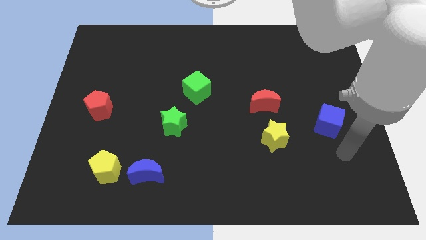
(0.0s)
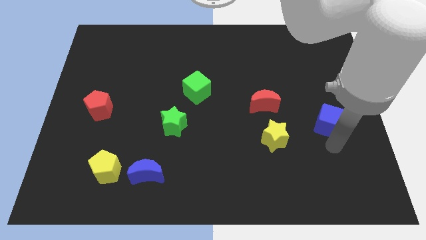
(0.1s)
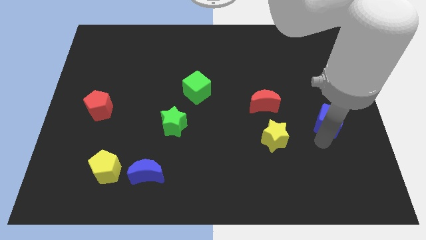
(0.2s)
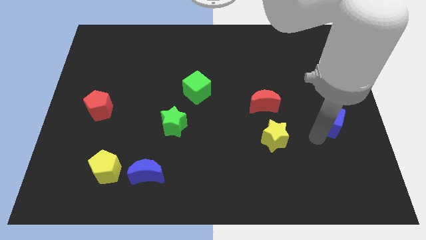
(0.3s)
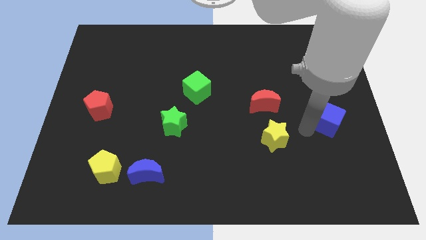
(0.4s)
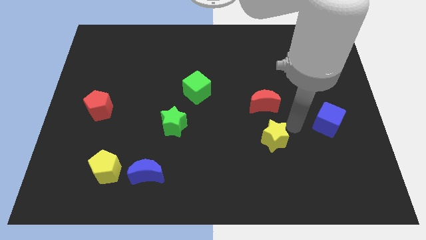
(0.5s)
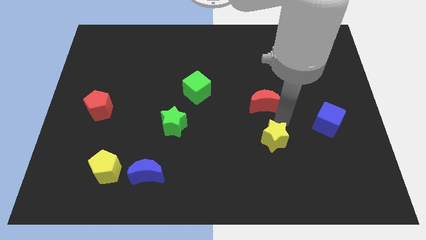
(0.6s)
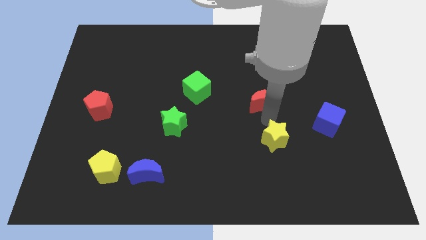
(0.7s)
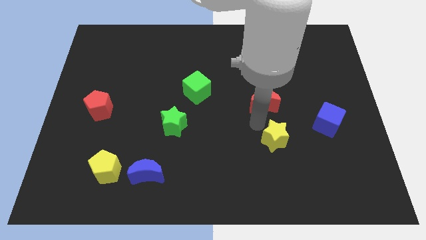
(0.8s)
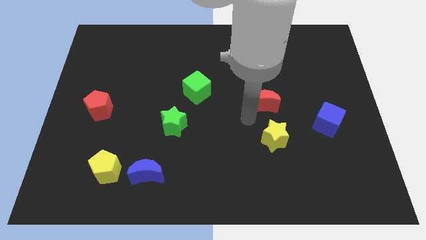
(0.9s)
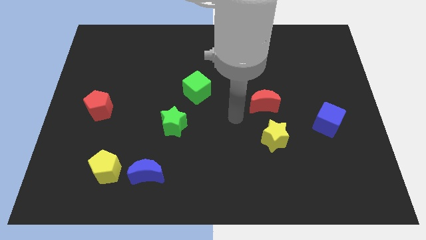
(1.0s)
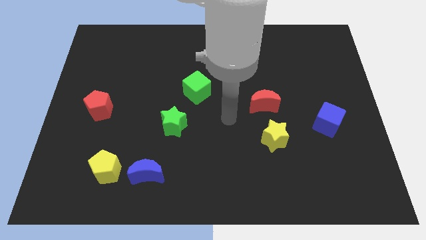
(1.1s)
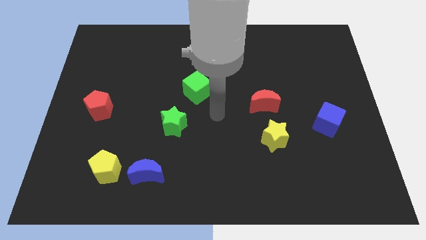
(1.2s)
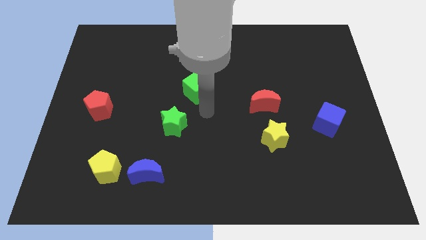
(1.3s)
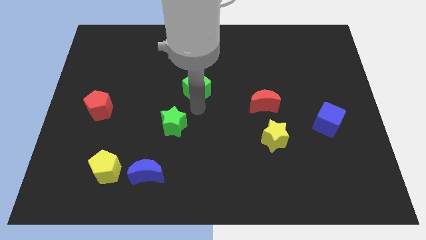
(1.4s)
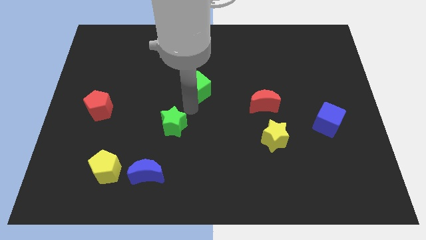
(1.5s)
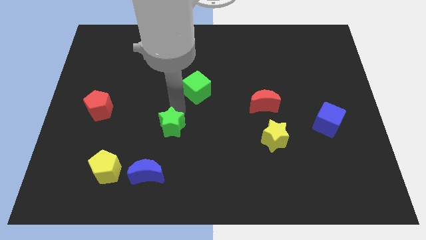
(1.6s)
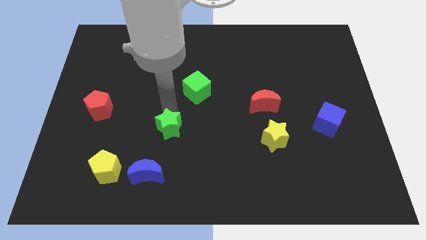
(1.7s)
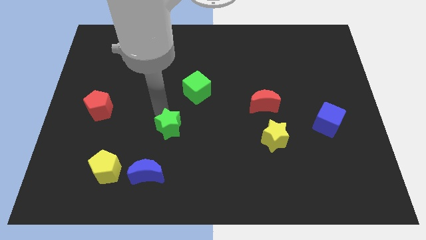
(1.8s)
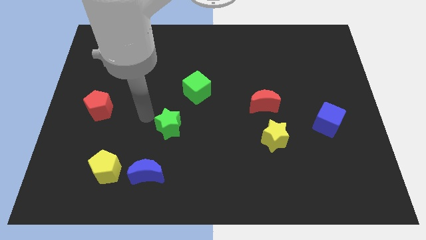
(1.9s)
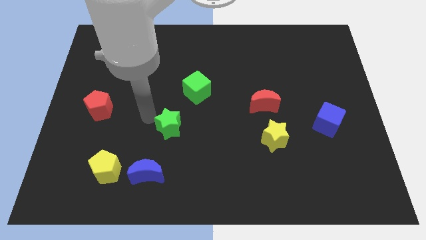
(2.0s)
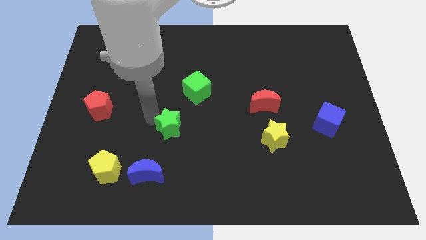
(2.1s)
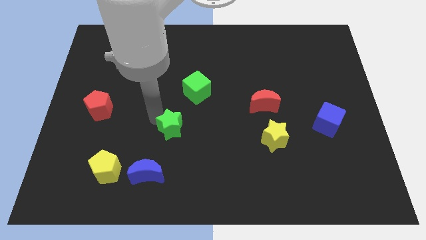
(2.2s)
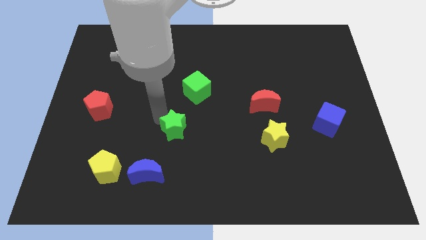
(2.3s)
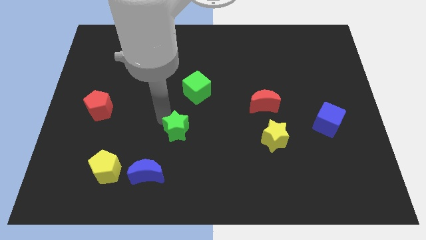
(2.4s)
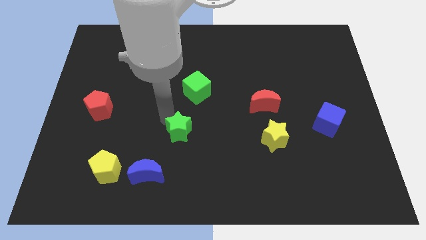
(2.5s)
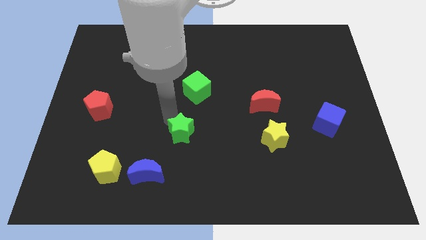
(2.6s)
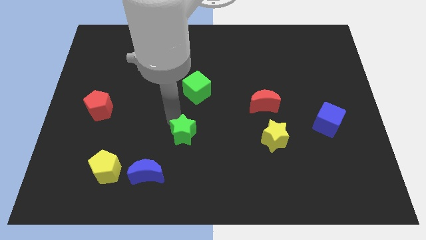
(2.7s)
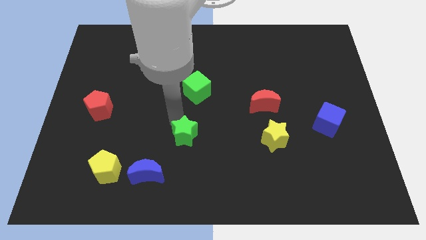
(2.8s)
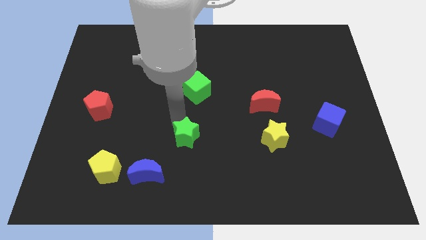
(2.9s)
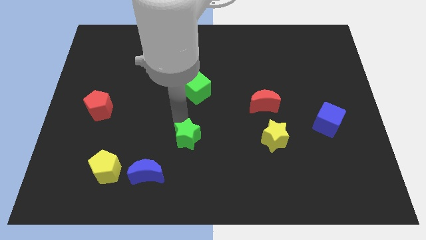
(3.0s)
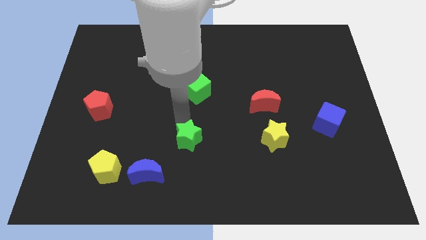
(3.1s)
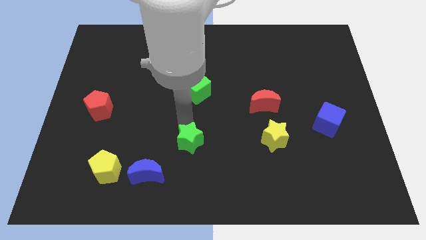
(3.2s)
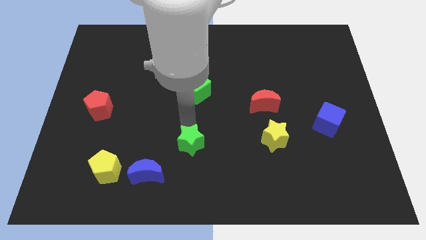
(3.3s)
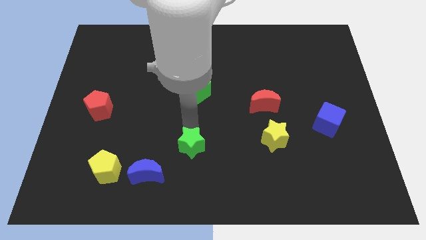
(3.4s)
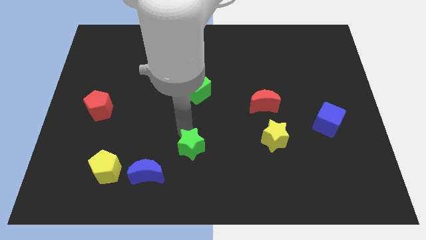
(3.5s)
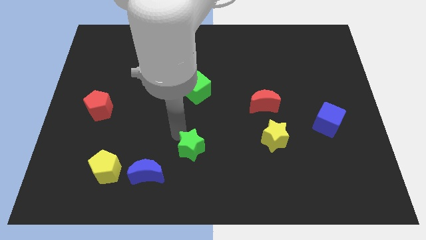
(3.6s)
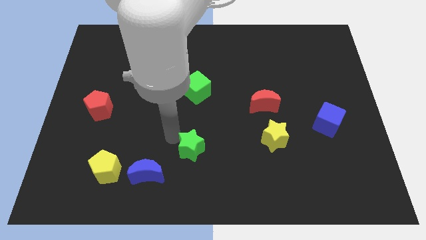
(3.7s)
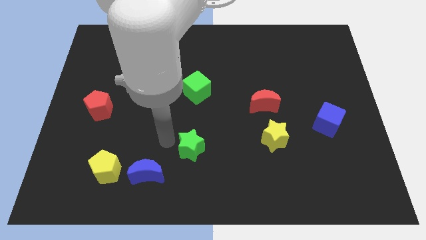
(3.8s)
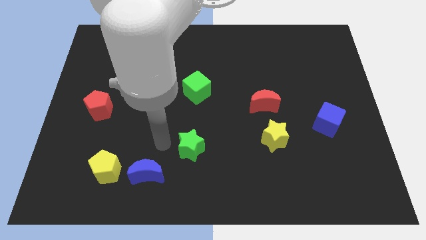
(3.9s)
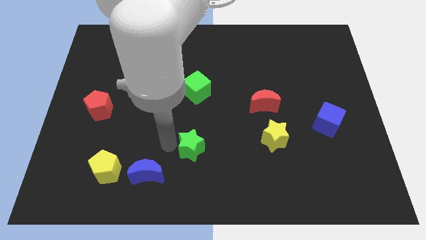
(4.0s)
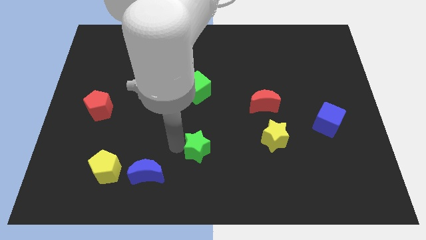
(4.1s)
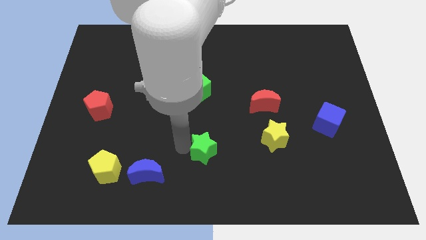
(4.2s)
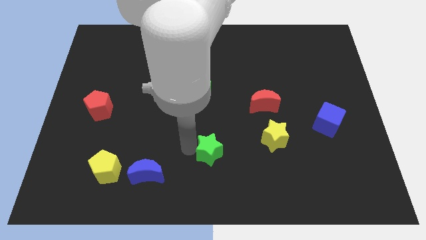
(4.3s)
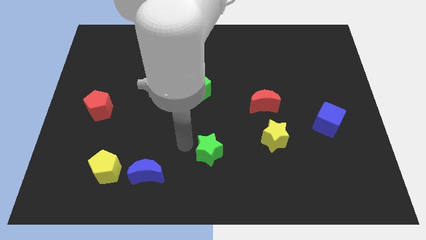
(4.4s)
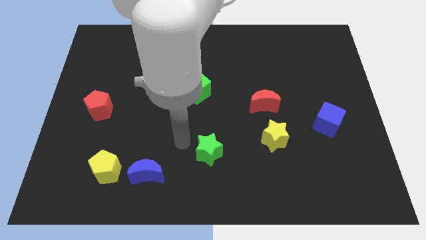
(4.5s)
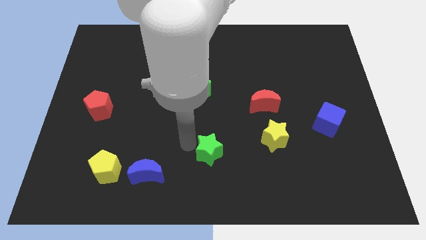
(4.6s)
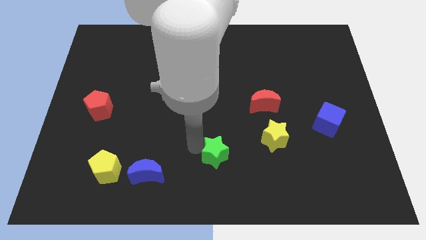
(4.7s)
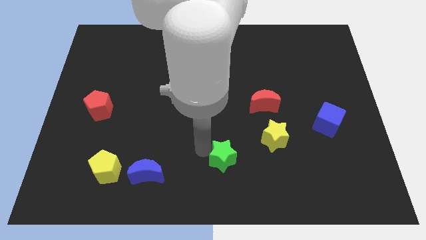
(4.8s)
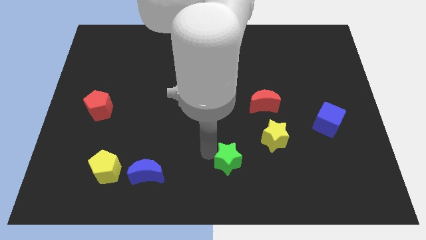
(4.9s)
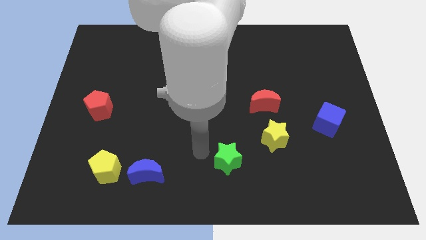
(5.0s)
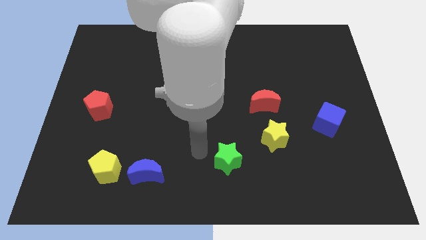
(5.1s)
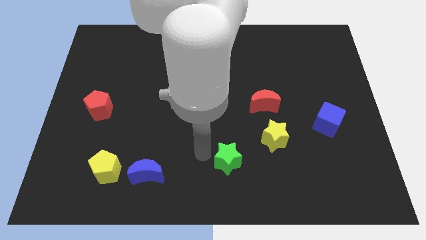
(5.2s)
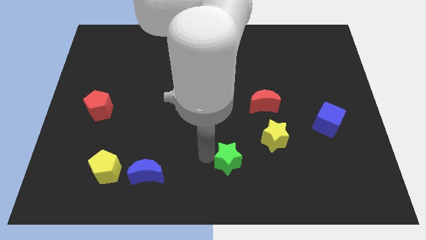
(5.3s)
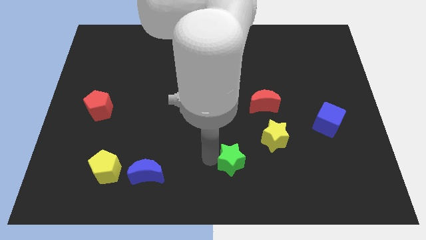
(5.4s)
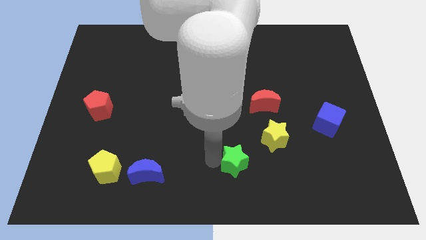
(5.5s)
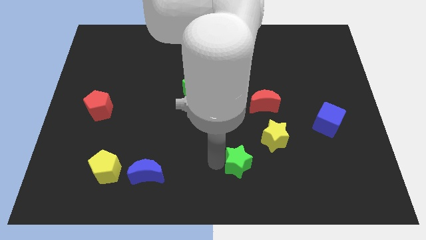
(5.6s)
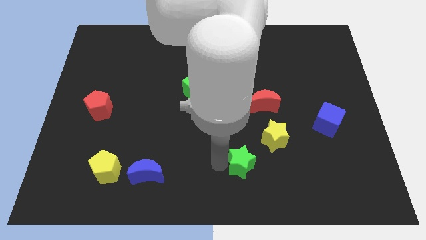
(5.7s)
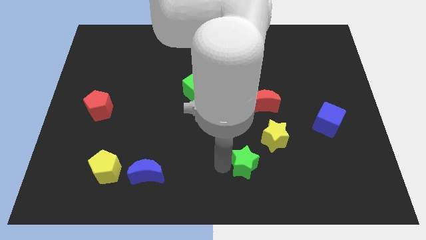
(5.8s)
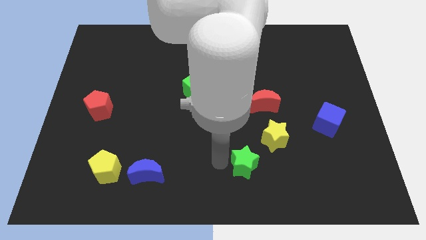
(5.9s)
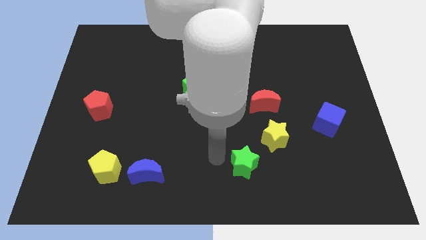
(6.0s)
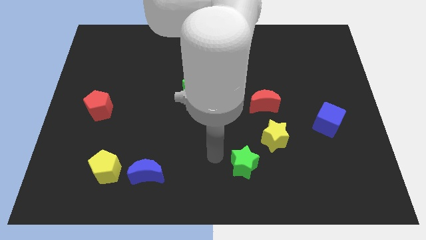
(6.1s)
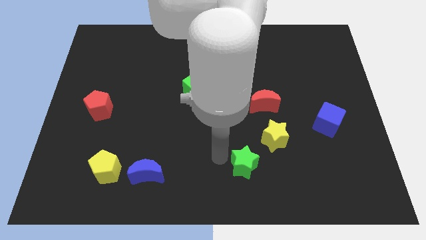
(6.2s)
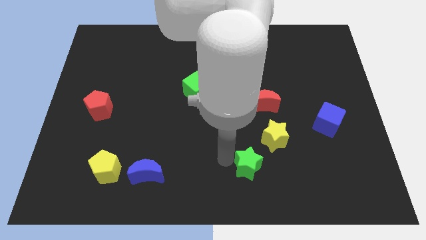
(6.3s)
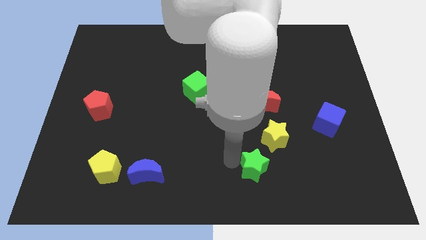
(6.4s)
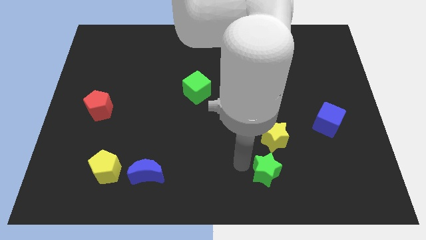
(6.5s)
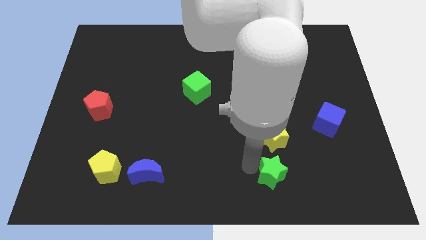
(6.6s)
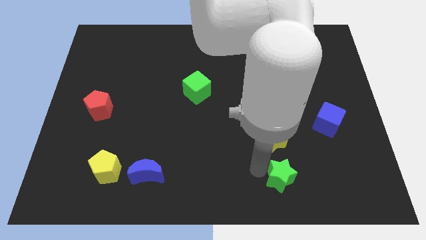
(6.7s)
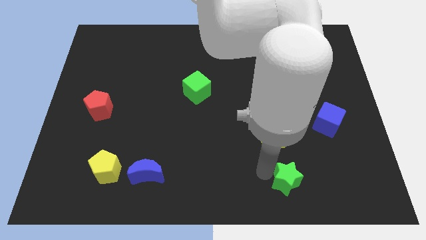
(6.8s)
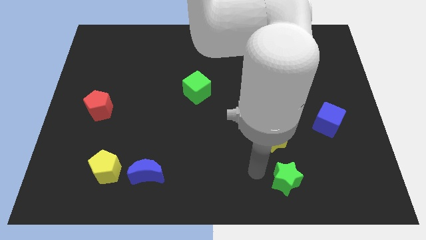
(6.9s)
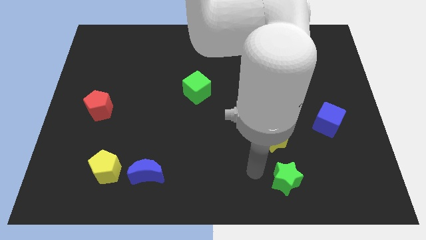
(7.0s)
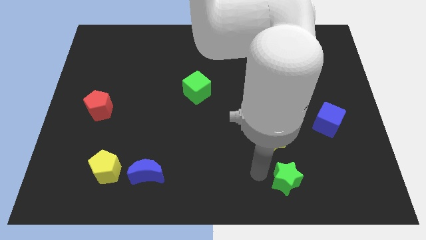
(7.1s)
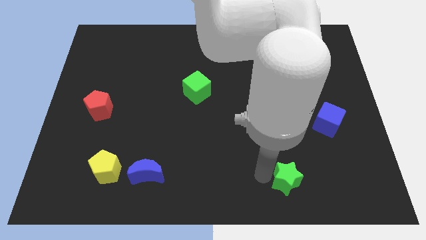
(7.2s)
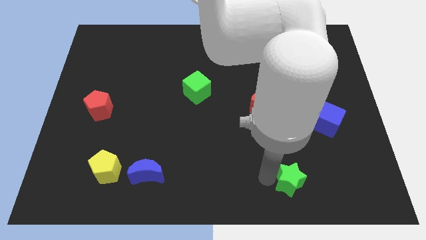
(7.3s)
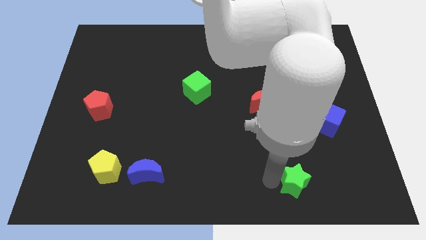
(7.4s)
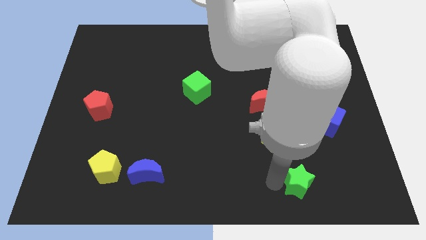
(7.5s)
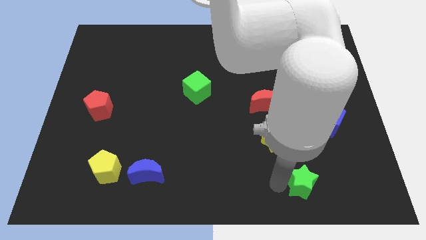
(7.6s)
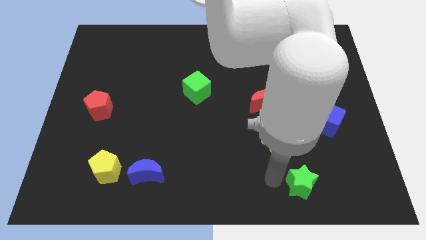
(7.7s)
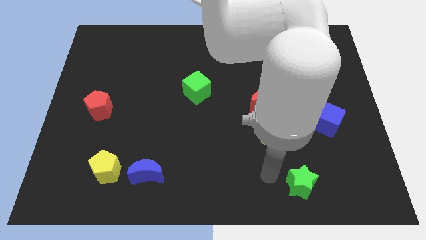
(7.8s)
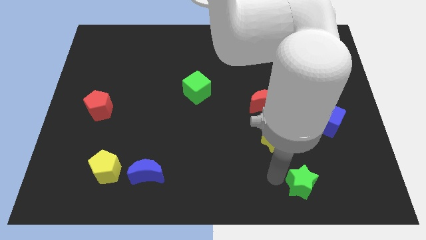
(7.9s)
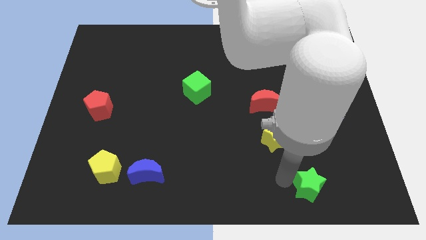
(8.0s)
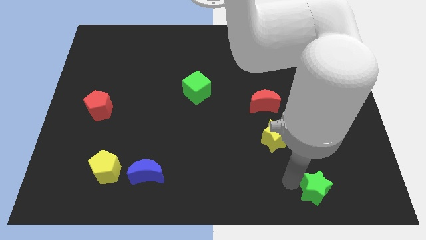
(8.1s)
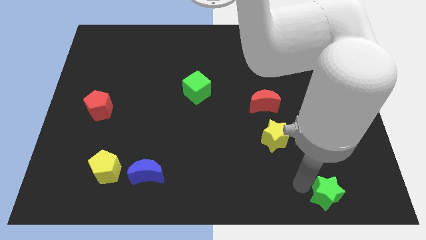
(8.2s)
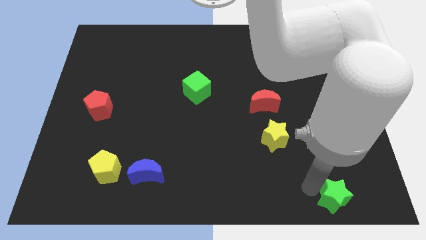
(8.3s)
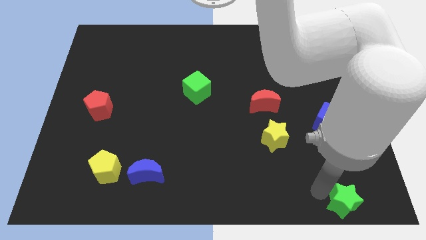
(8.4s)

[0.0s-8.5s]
put the green star to the bottom right
